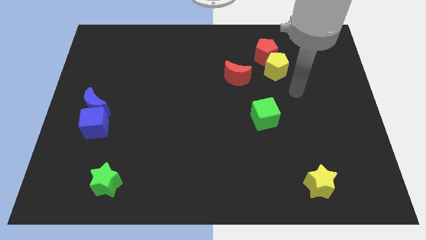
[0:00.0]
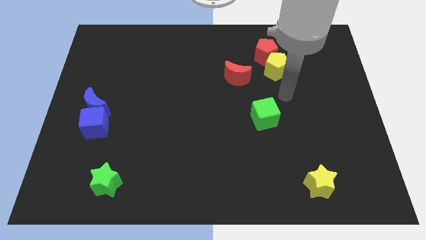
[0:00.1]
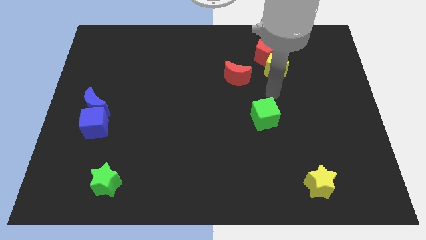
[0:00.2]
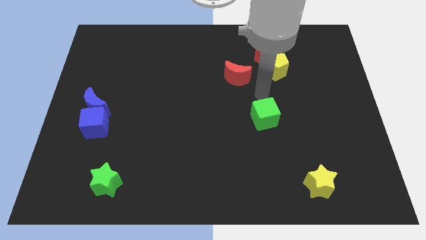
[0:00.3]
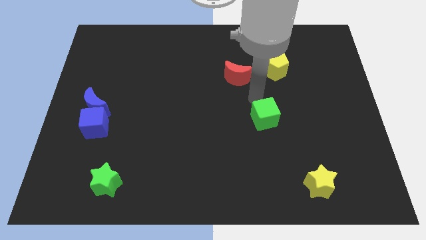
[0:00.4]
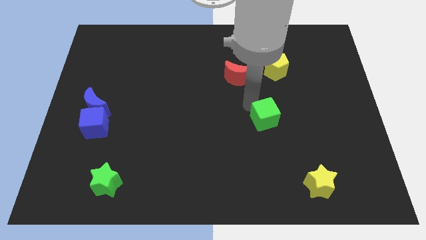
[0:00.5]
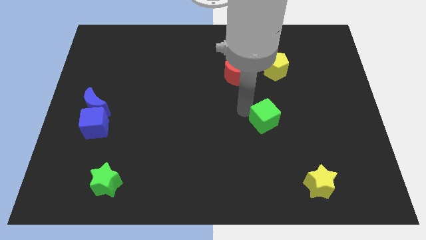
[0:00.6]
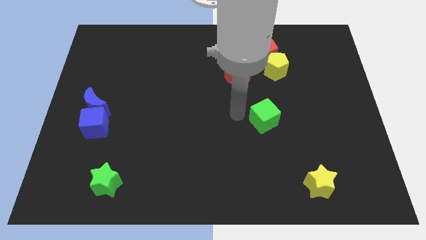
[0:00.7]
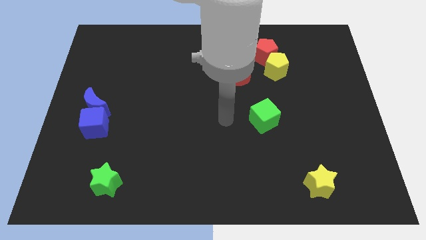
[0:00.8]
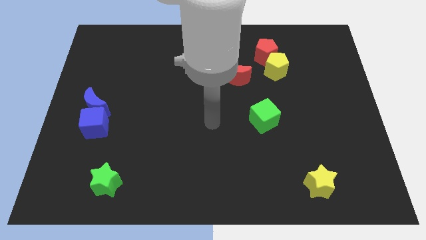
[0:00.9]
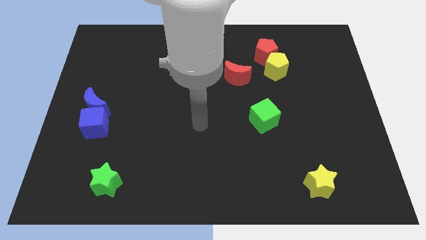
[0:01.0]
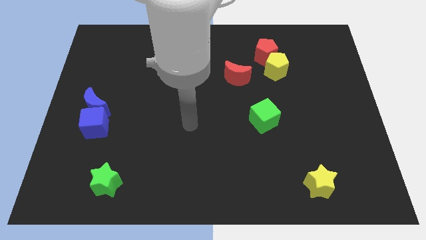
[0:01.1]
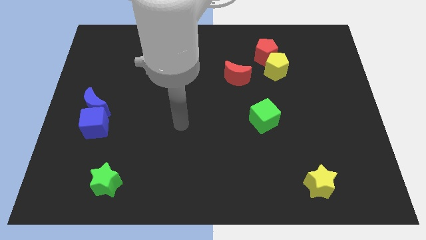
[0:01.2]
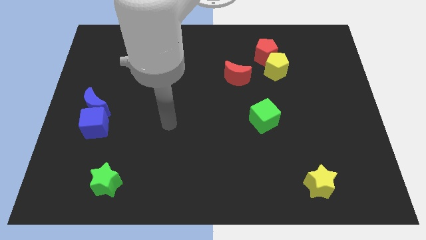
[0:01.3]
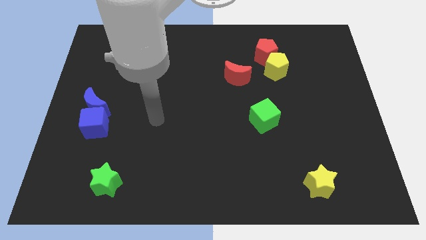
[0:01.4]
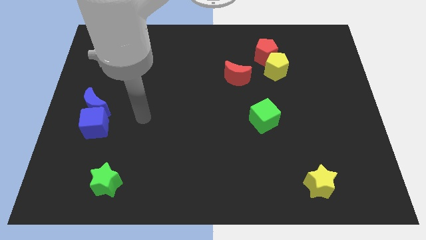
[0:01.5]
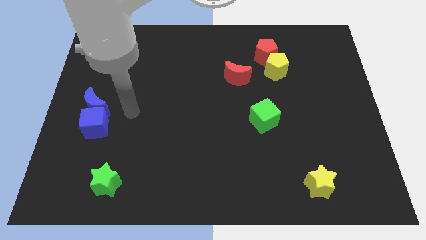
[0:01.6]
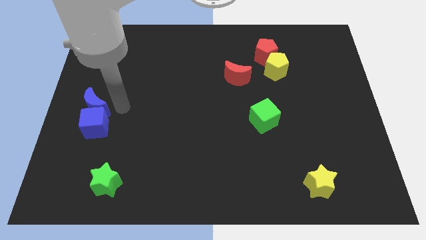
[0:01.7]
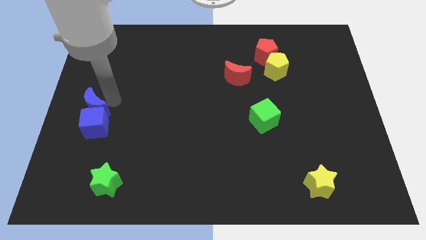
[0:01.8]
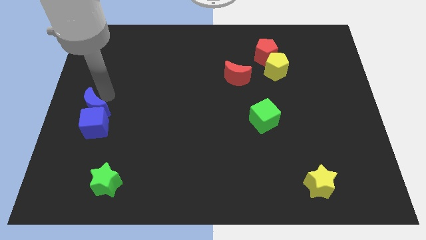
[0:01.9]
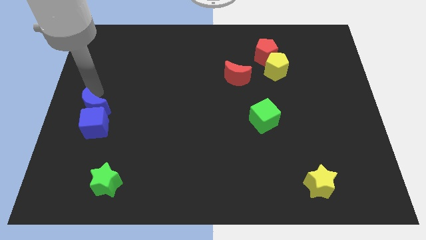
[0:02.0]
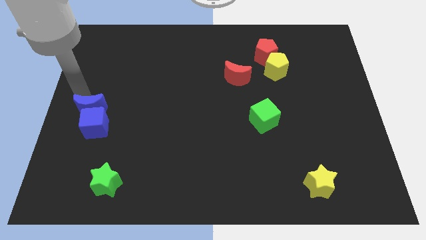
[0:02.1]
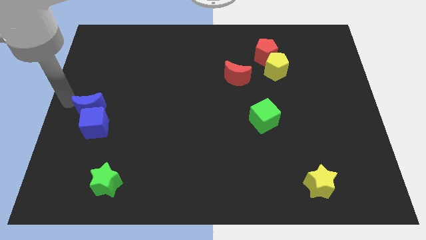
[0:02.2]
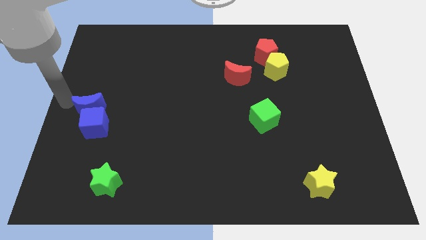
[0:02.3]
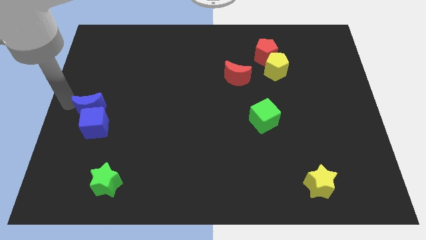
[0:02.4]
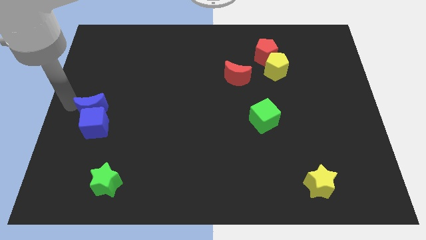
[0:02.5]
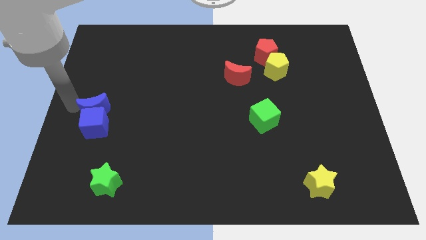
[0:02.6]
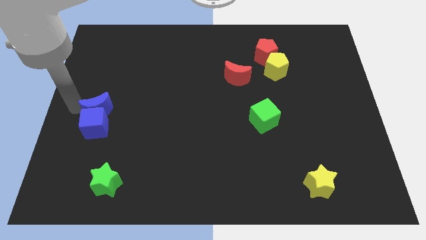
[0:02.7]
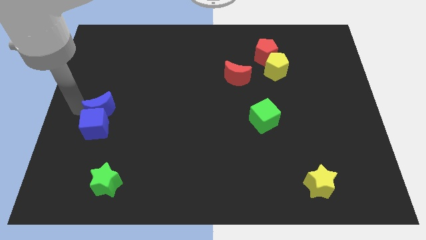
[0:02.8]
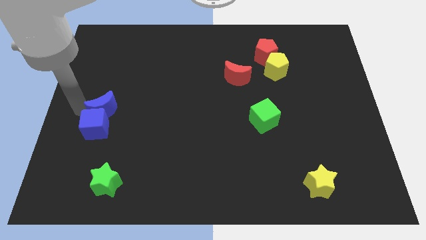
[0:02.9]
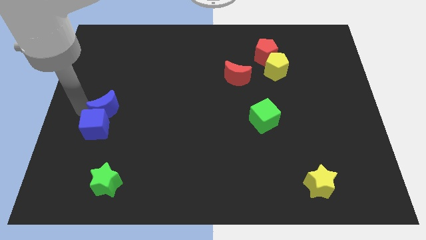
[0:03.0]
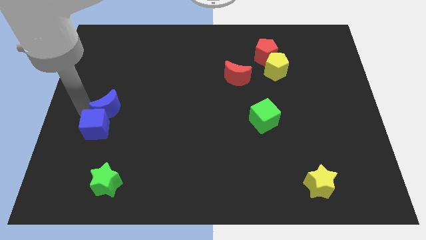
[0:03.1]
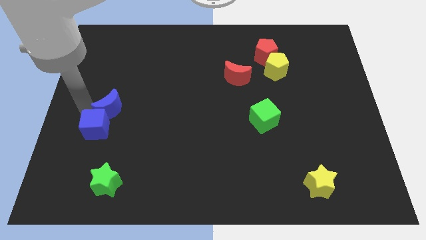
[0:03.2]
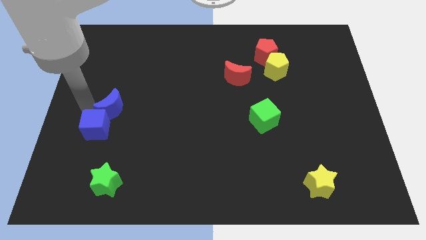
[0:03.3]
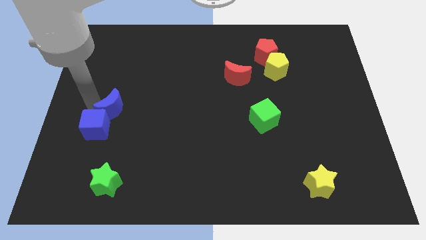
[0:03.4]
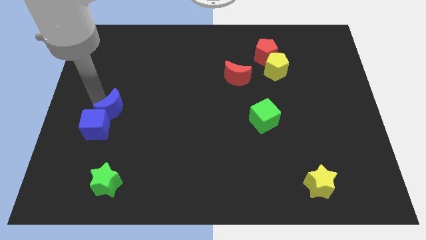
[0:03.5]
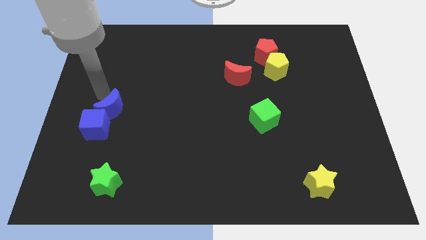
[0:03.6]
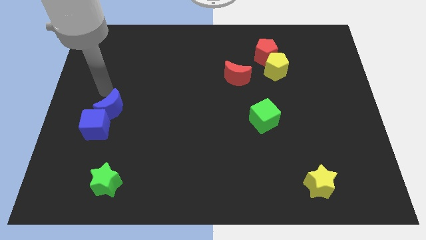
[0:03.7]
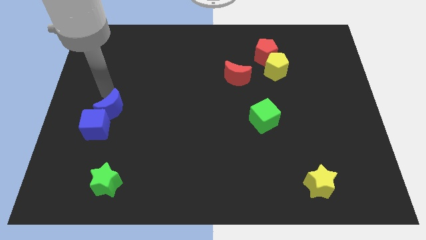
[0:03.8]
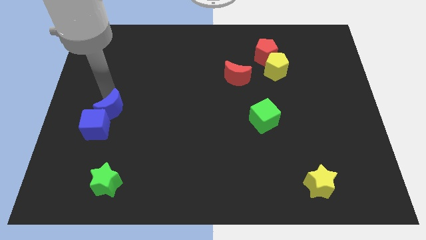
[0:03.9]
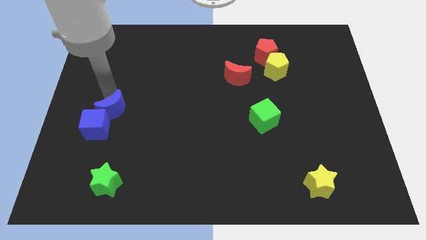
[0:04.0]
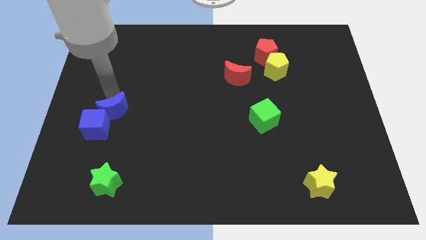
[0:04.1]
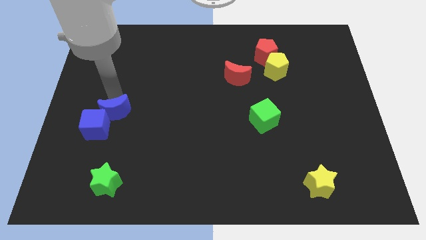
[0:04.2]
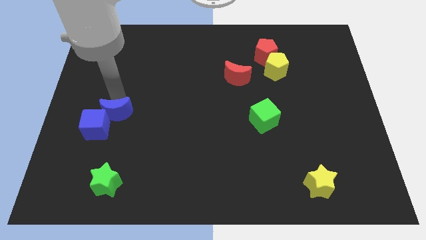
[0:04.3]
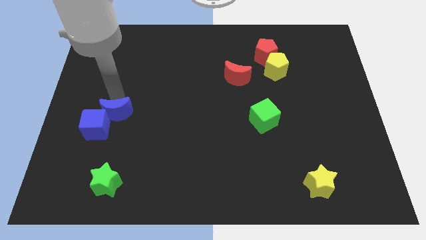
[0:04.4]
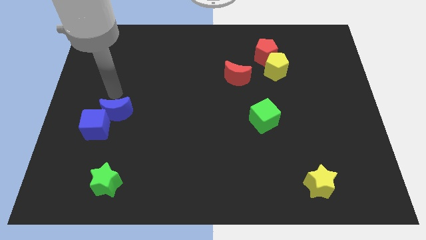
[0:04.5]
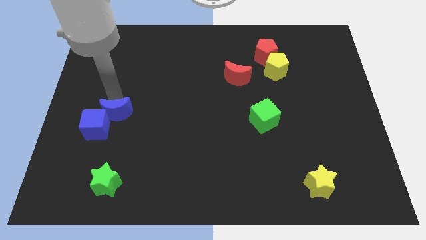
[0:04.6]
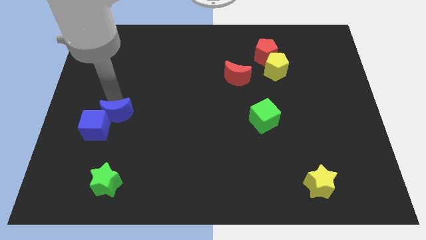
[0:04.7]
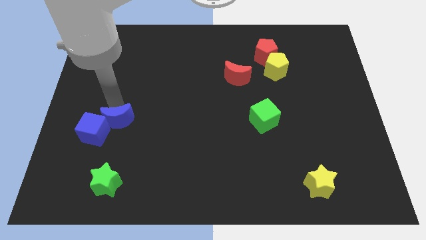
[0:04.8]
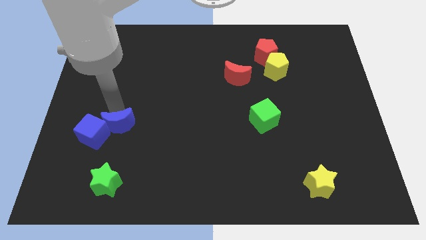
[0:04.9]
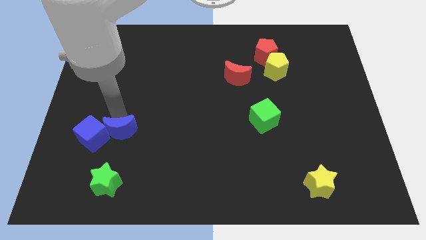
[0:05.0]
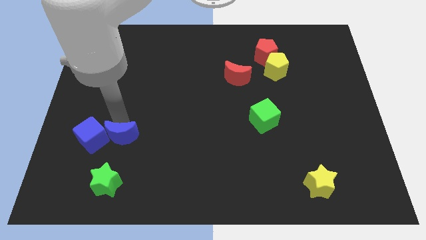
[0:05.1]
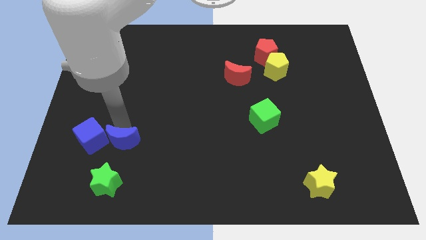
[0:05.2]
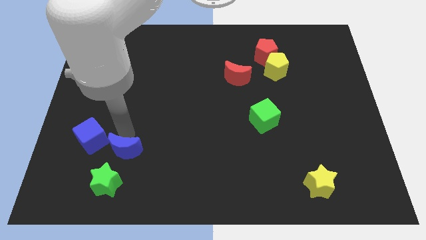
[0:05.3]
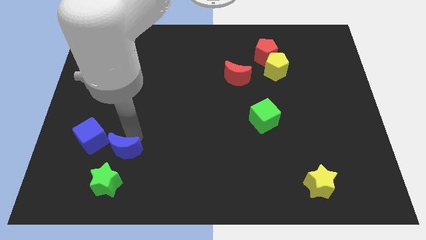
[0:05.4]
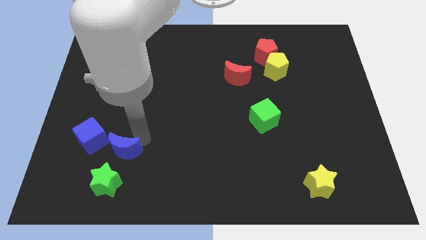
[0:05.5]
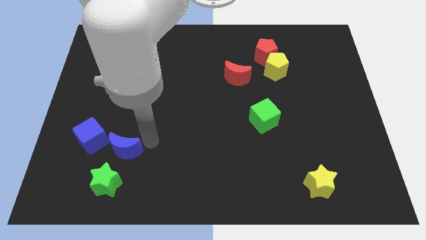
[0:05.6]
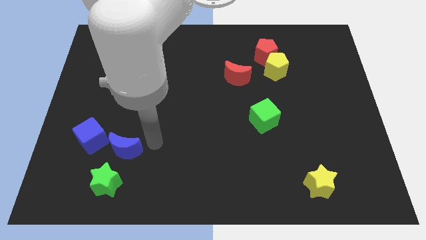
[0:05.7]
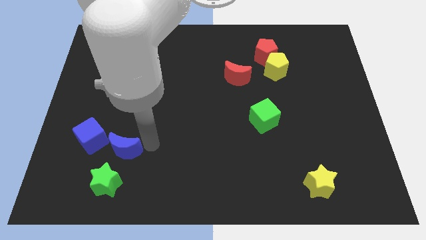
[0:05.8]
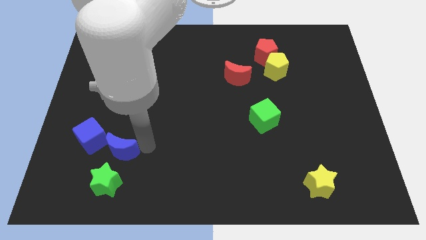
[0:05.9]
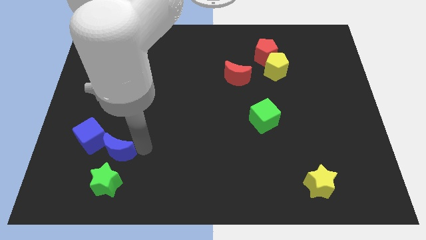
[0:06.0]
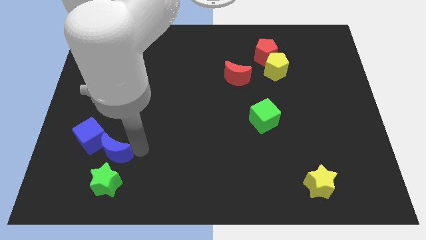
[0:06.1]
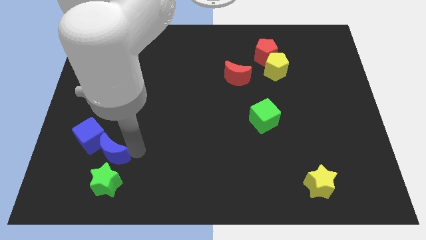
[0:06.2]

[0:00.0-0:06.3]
slide the blue moon to the top left of the green star

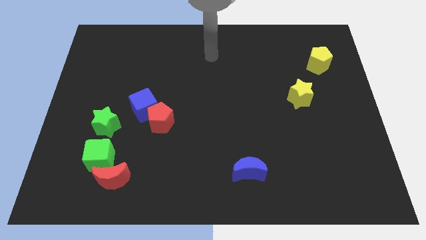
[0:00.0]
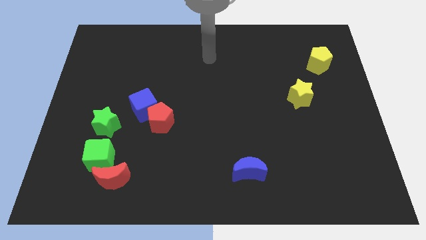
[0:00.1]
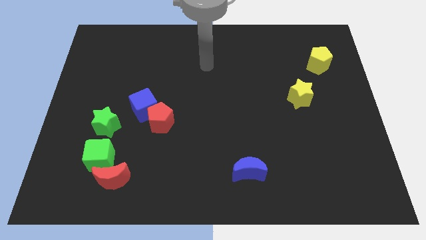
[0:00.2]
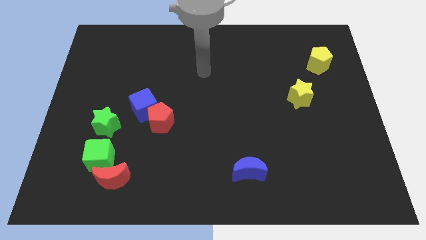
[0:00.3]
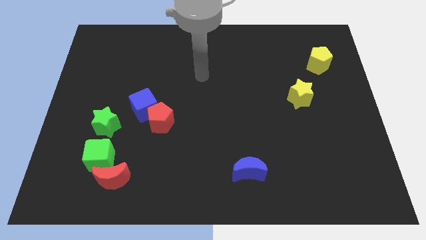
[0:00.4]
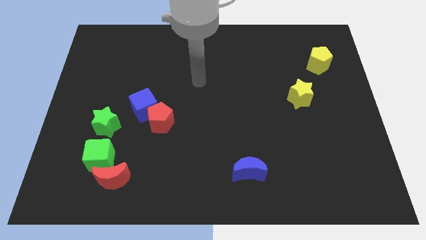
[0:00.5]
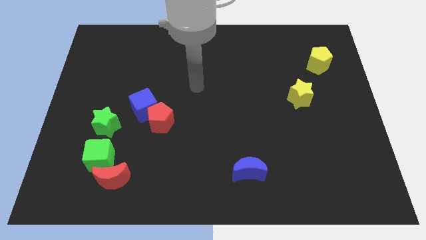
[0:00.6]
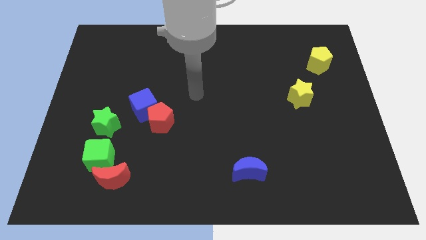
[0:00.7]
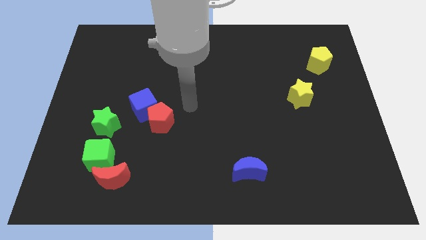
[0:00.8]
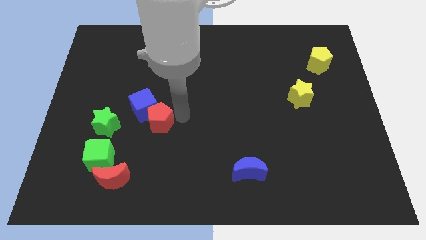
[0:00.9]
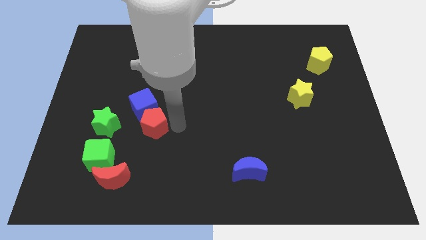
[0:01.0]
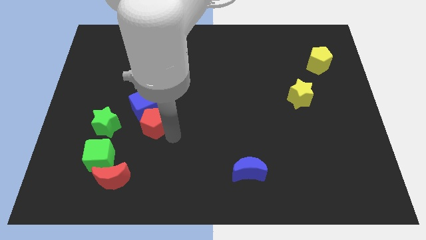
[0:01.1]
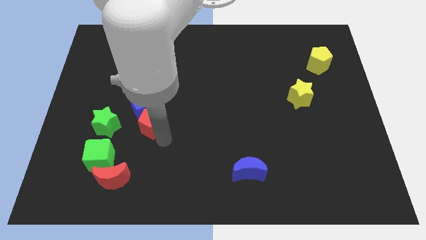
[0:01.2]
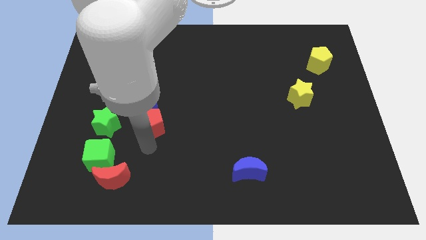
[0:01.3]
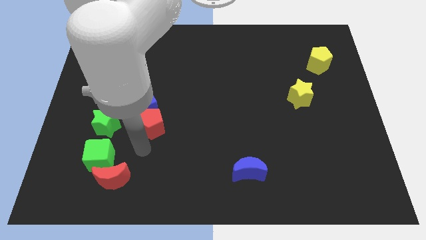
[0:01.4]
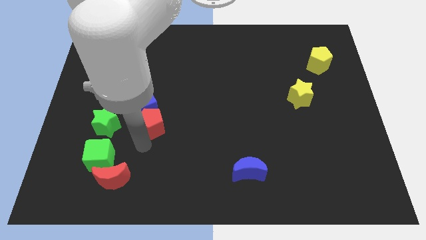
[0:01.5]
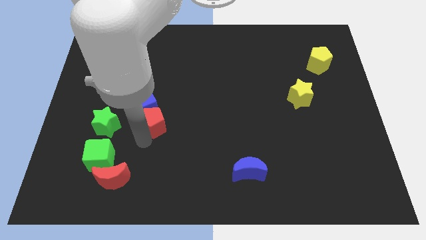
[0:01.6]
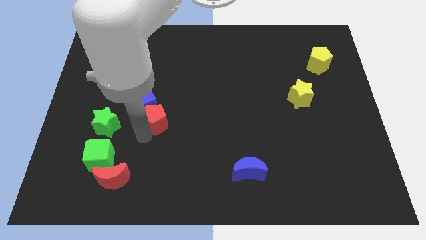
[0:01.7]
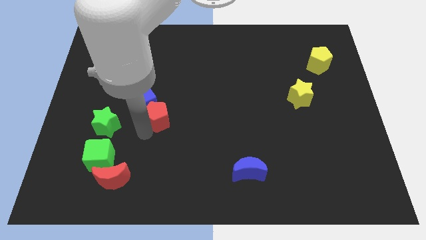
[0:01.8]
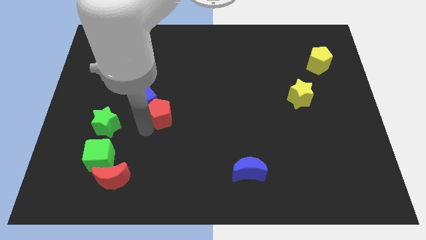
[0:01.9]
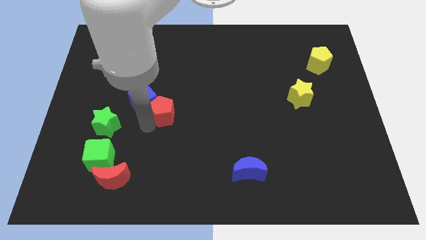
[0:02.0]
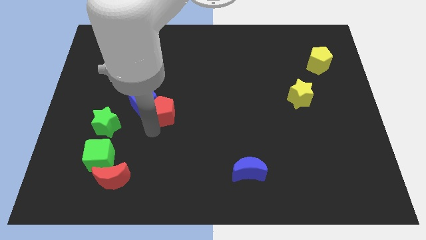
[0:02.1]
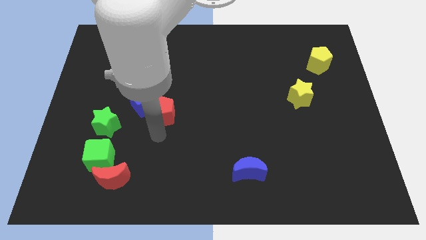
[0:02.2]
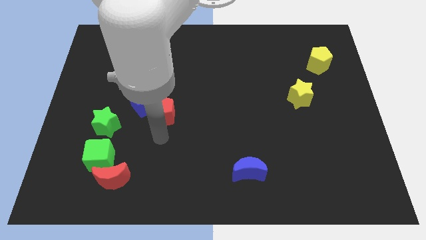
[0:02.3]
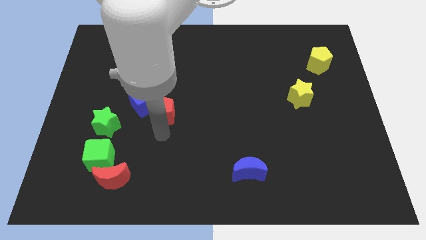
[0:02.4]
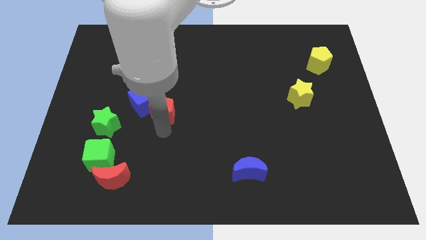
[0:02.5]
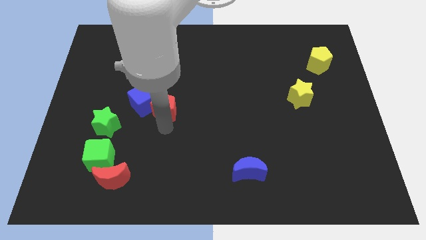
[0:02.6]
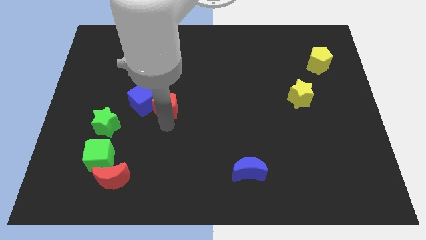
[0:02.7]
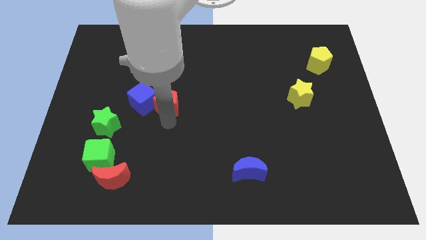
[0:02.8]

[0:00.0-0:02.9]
push the red pentagon to the top right of the blue cube
